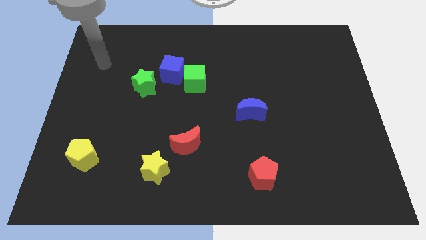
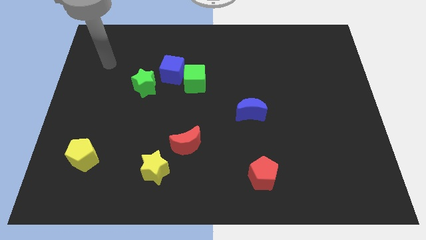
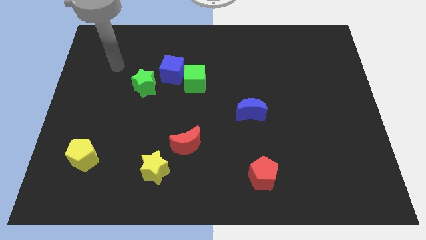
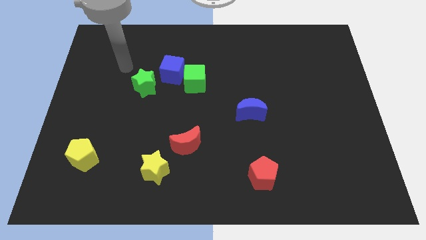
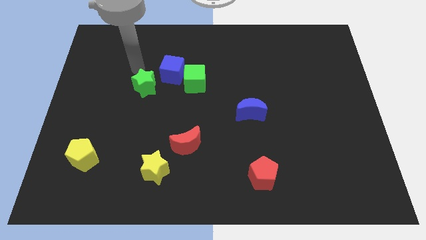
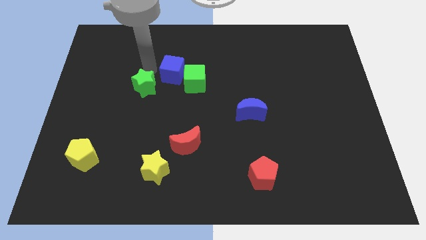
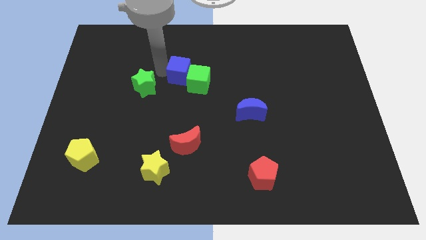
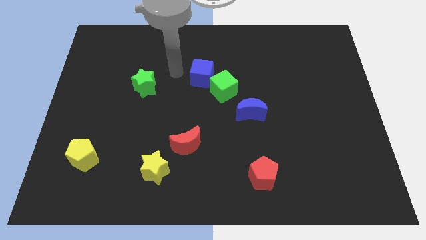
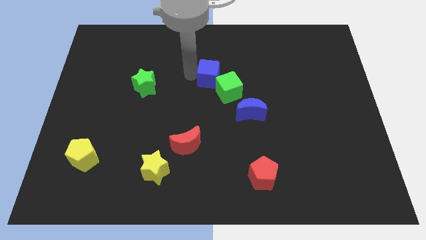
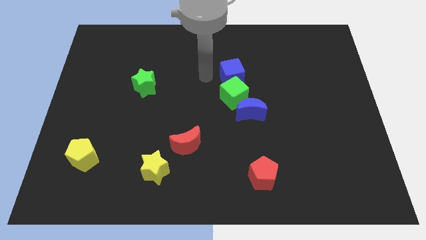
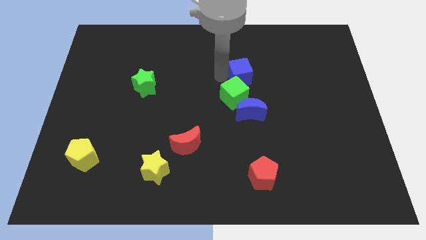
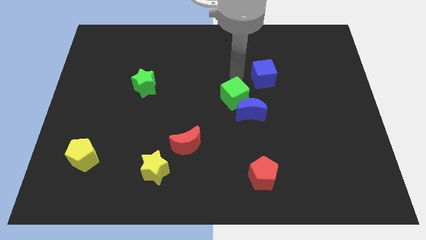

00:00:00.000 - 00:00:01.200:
pull the green cube apart from the blue cube

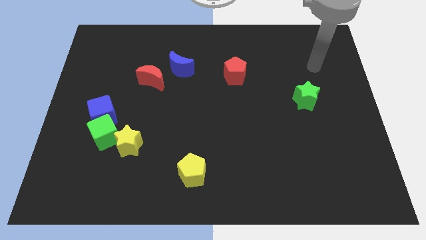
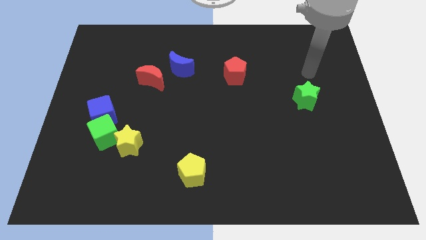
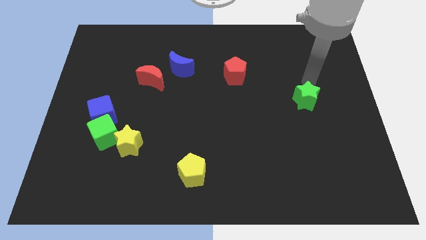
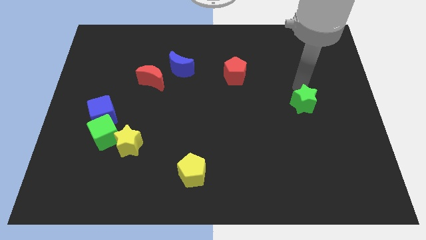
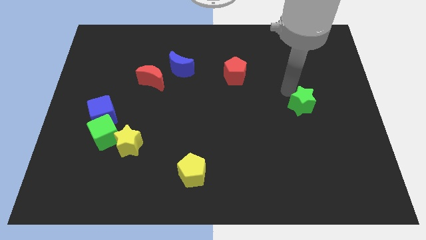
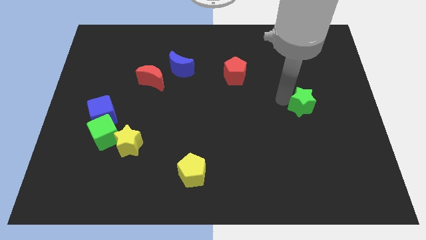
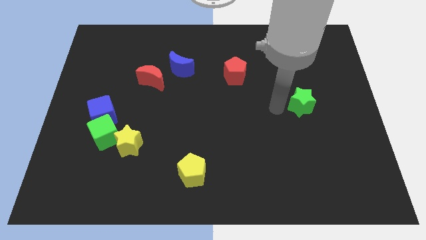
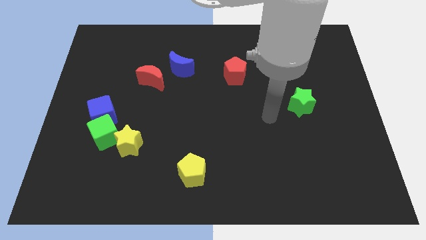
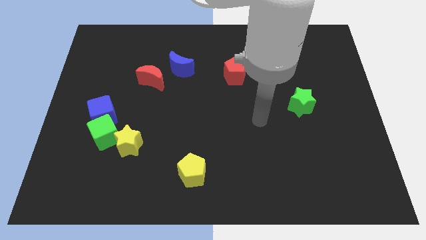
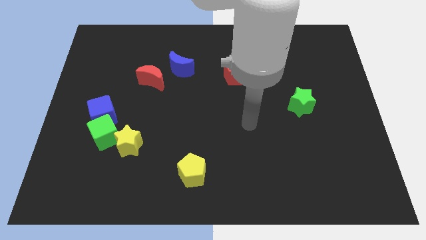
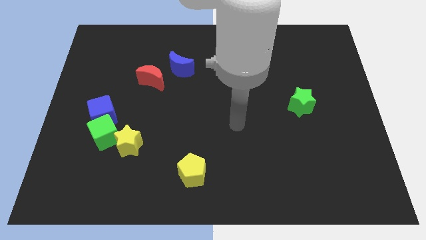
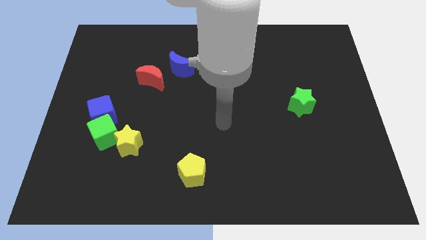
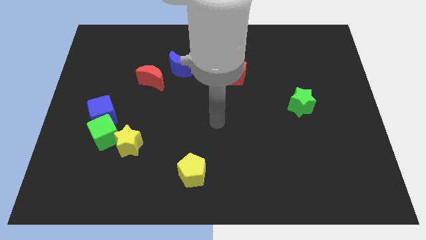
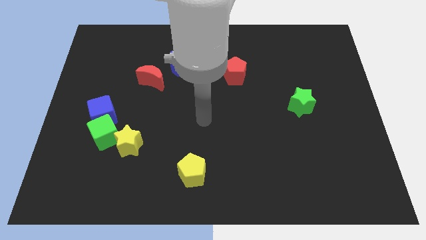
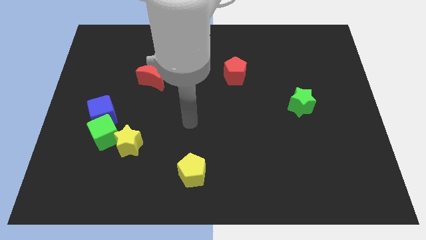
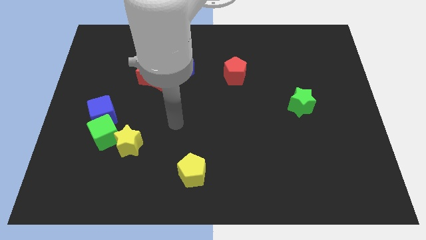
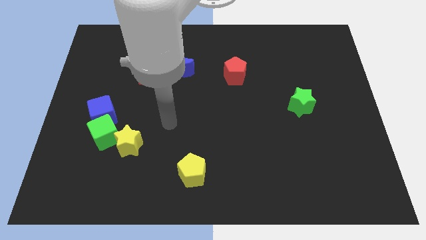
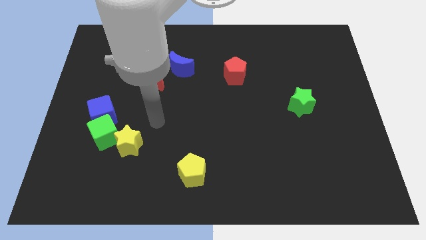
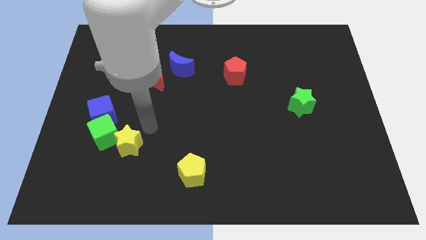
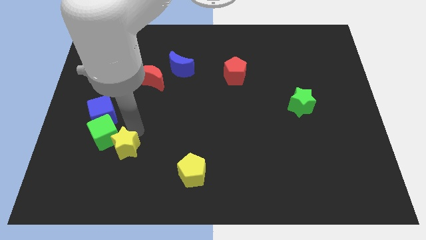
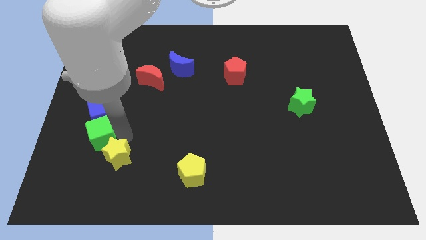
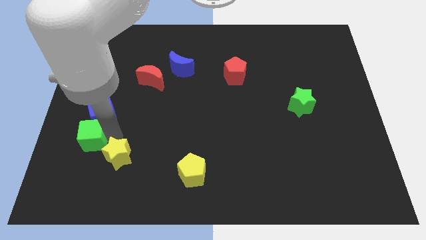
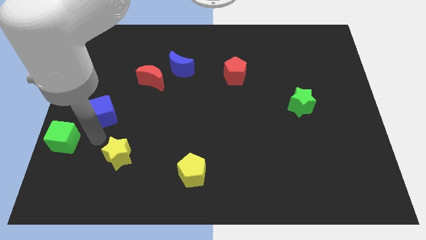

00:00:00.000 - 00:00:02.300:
move the blue cube away from the green cube

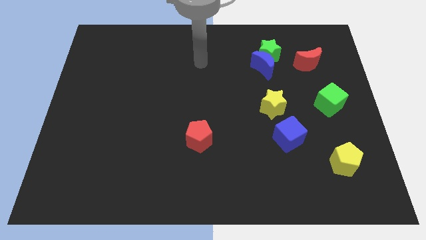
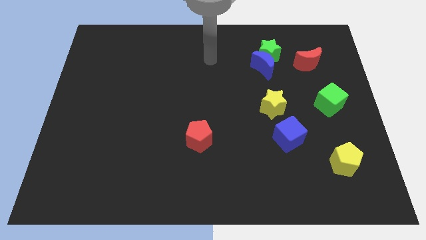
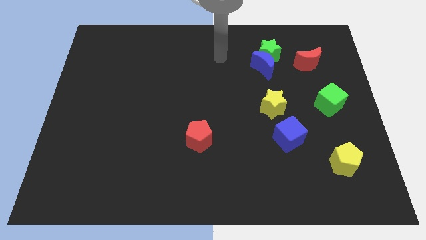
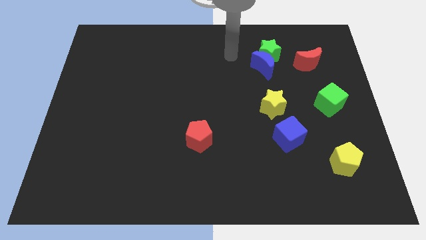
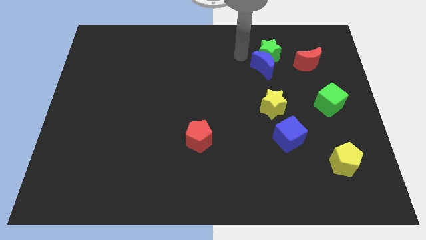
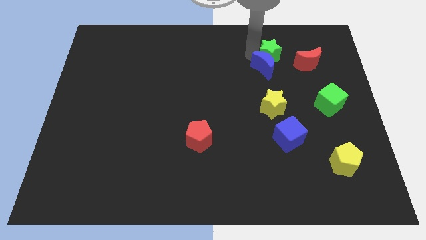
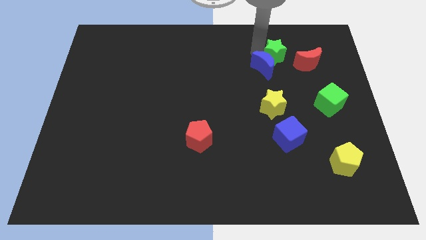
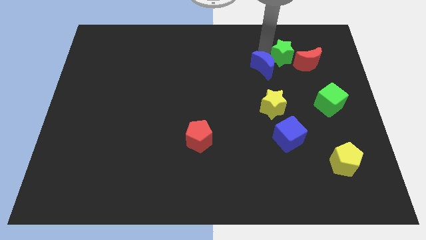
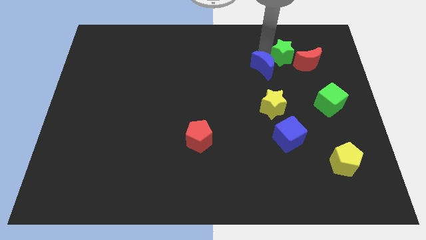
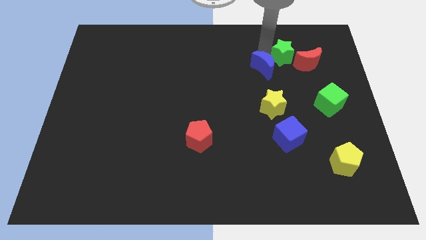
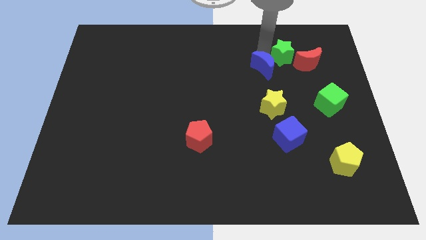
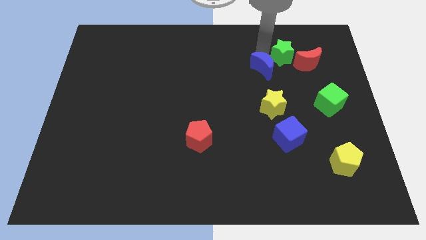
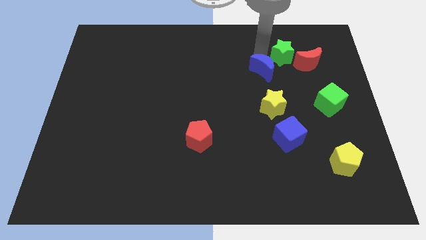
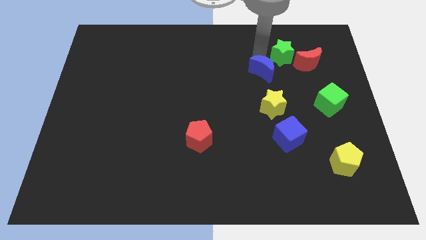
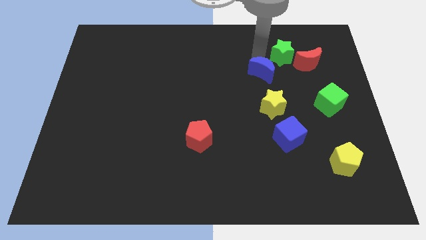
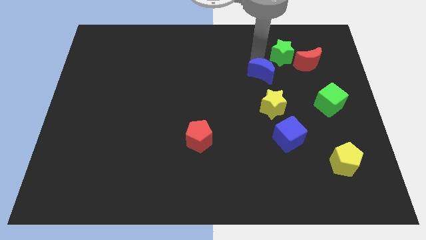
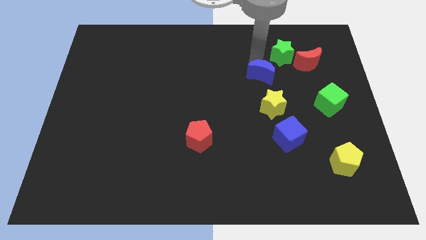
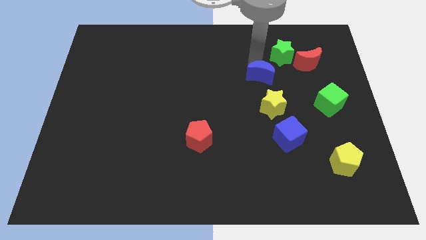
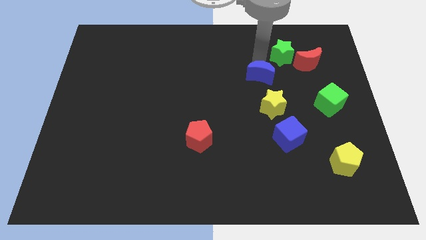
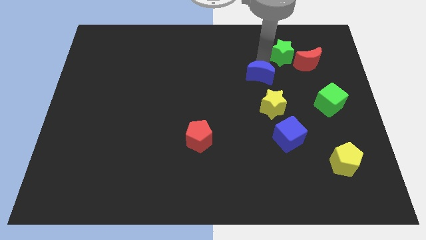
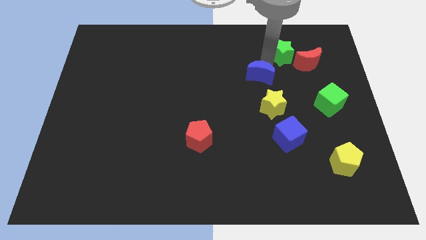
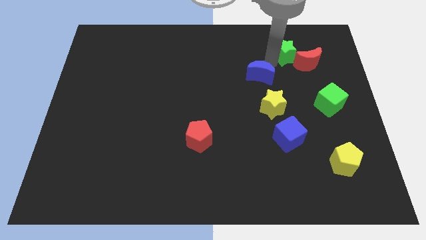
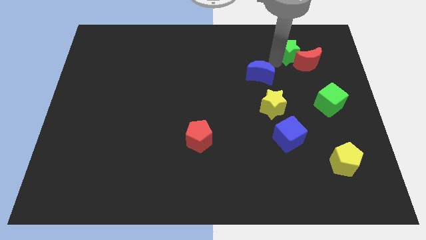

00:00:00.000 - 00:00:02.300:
separate the blue moon from the green star

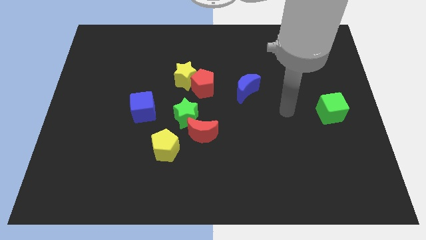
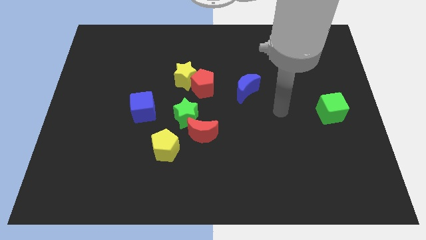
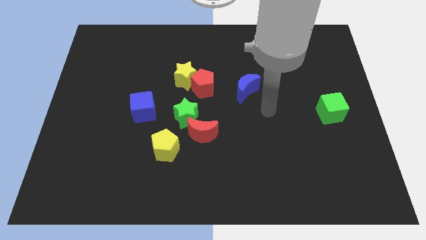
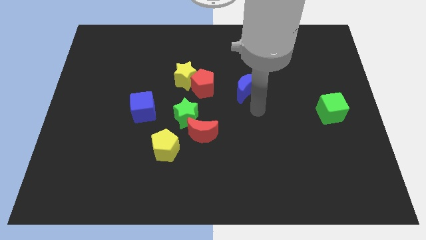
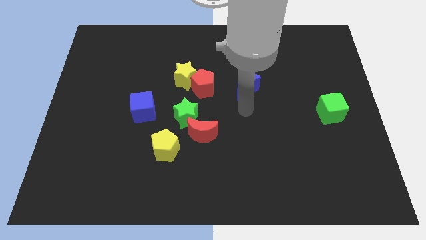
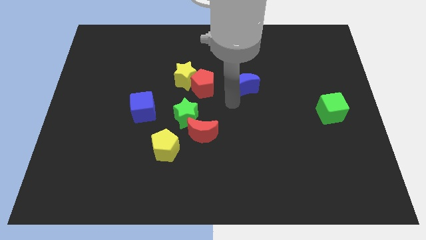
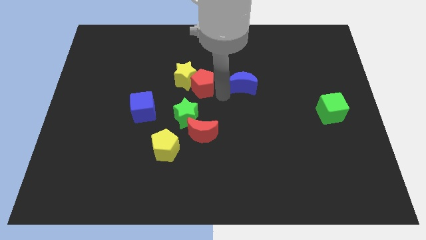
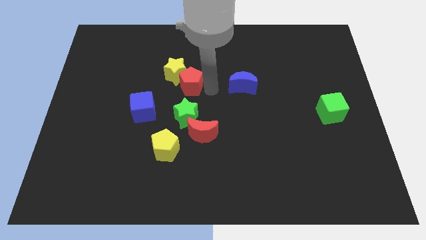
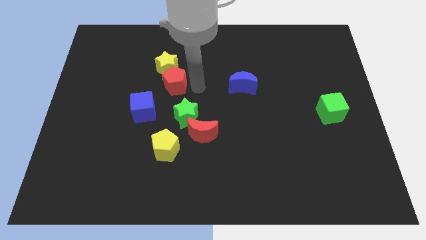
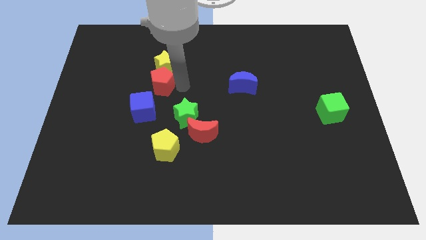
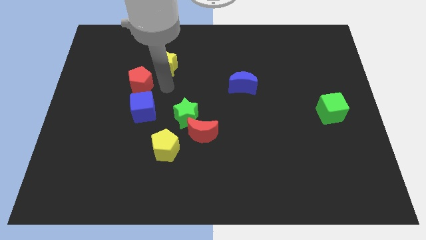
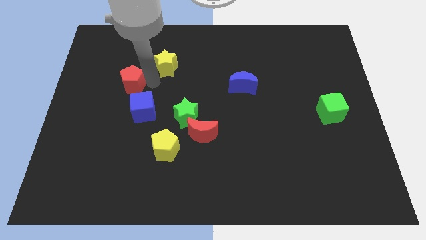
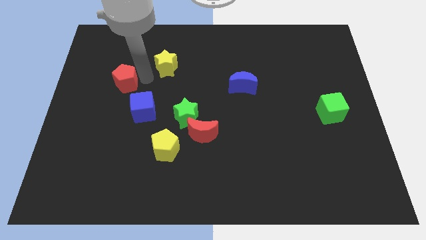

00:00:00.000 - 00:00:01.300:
pull the yellow star apart from the red pentagon

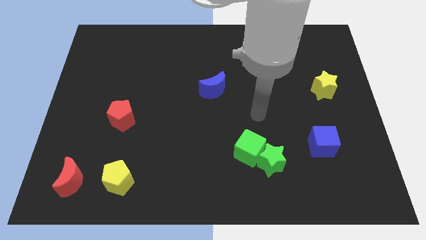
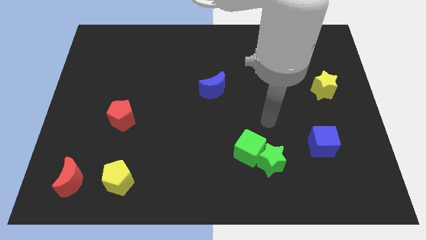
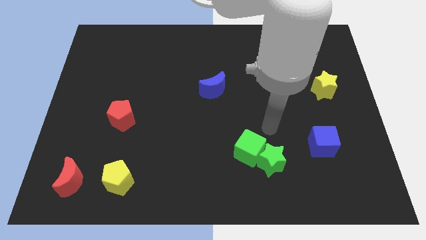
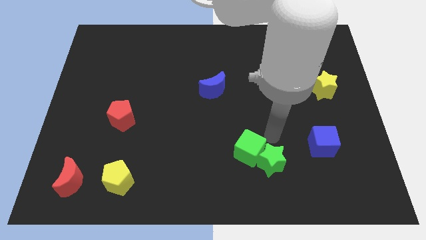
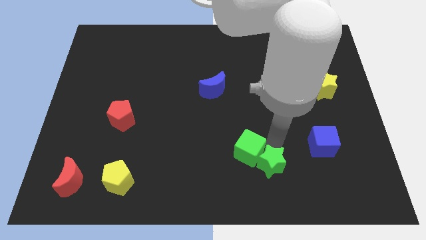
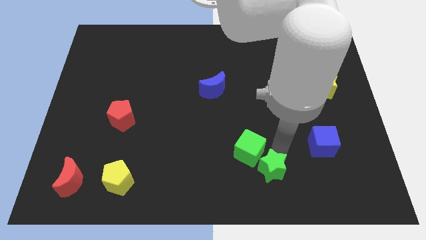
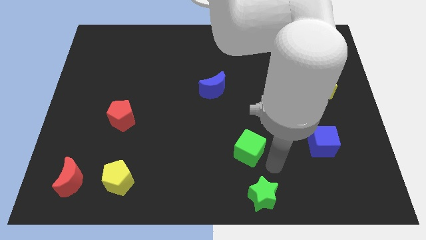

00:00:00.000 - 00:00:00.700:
separate the green cube from the green star

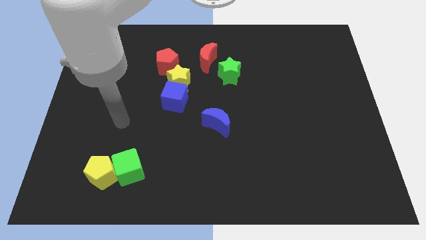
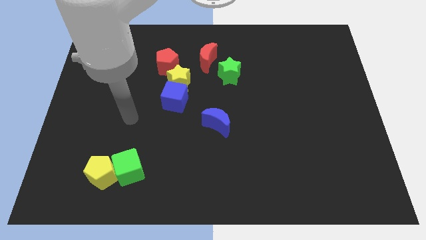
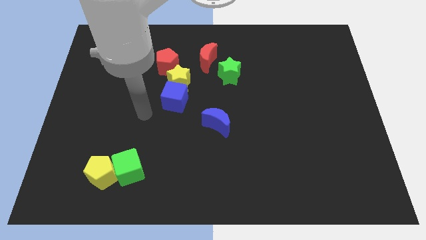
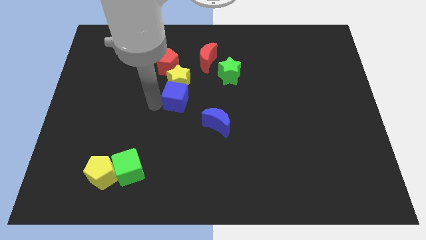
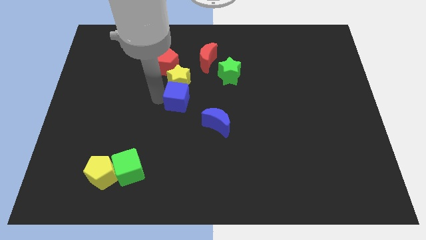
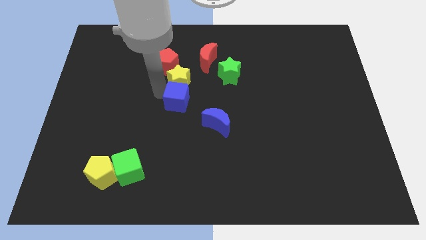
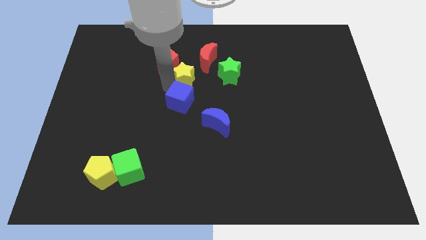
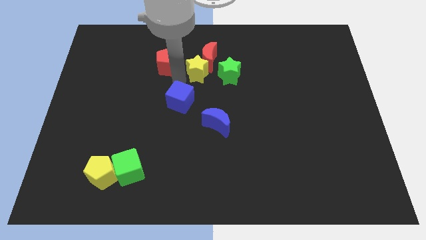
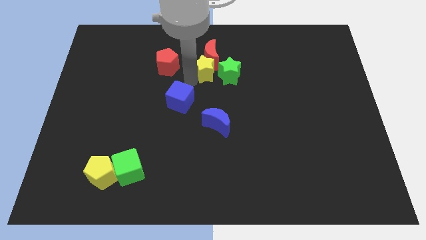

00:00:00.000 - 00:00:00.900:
pull the blue cube apart from the yellow star

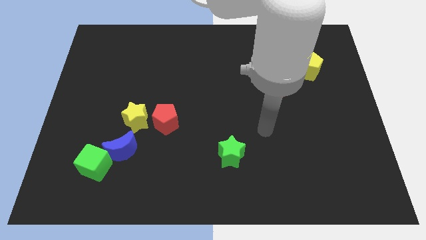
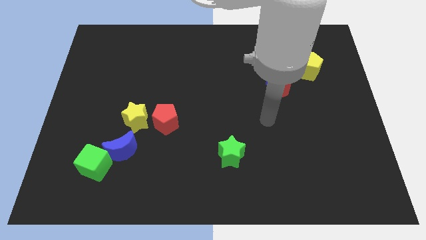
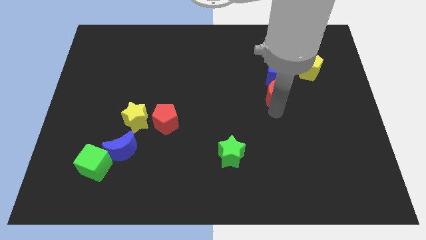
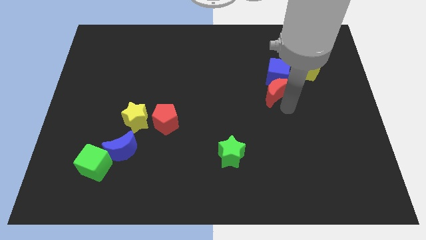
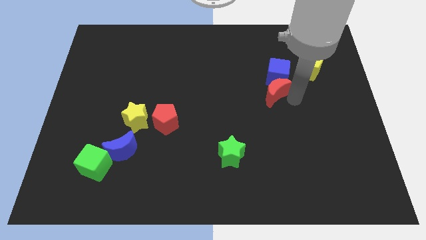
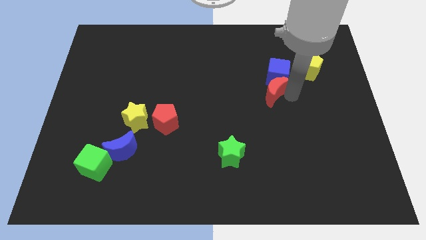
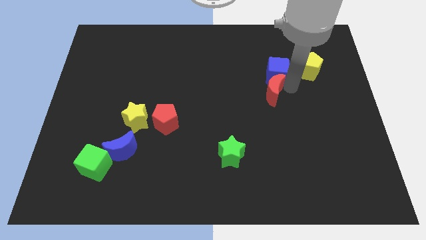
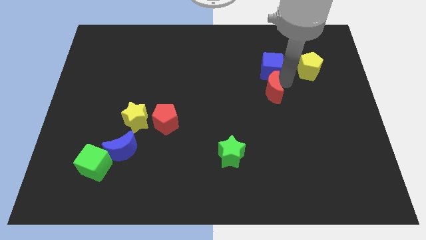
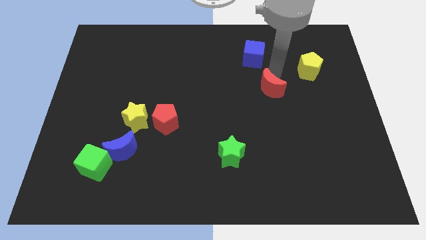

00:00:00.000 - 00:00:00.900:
move the red moon away from the blue cube
